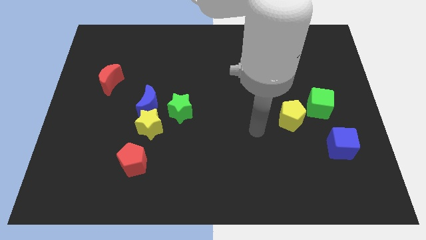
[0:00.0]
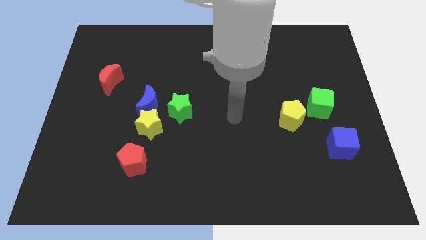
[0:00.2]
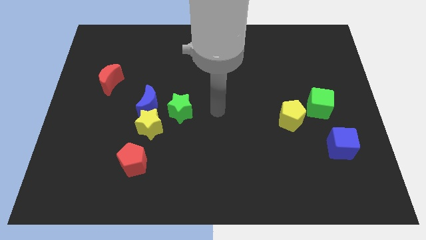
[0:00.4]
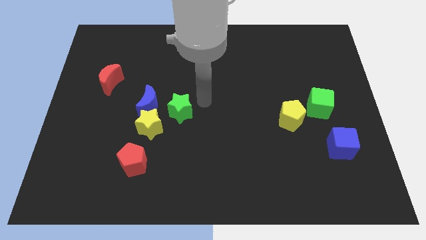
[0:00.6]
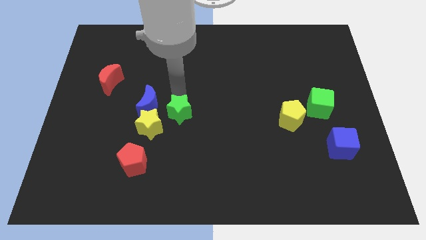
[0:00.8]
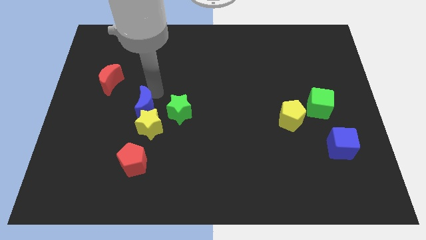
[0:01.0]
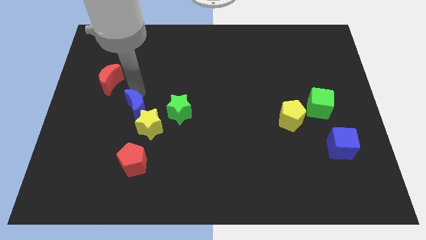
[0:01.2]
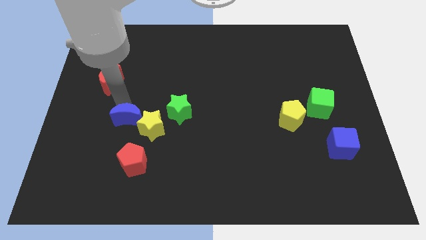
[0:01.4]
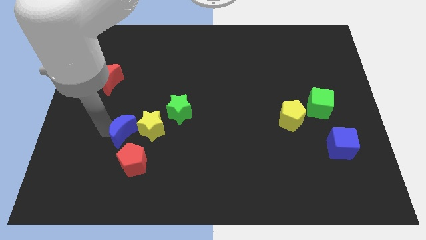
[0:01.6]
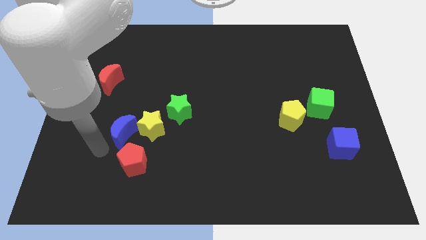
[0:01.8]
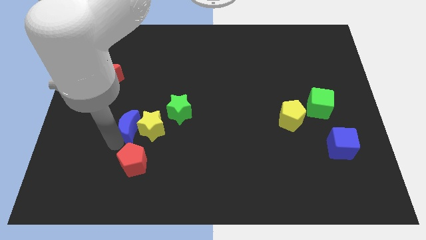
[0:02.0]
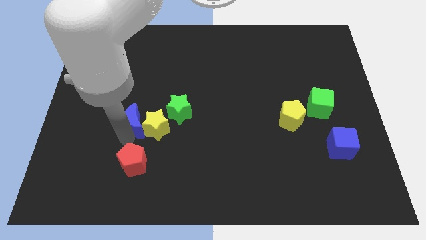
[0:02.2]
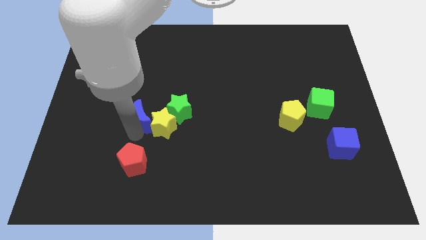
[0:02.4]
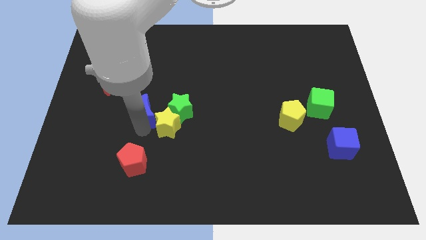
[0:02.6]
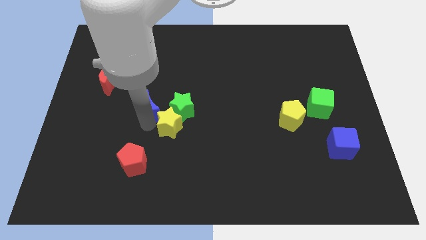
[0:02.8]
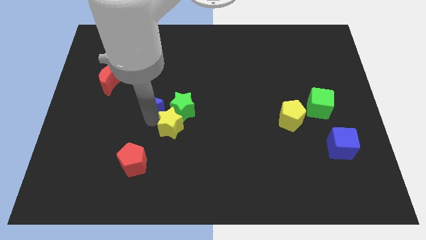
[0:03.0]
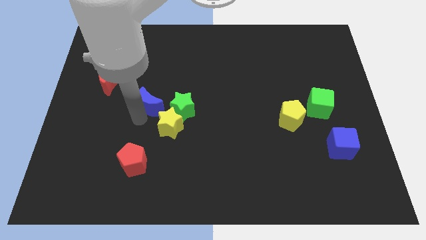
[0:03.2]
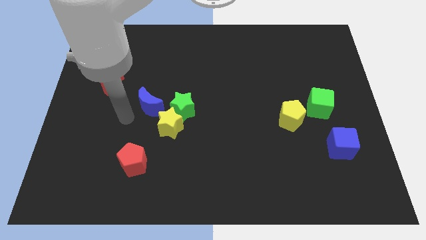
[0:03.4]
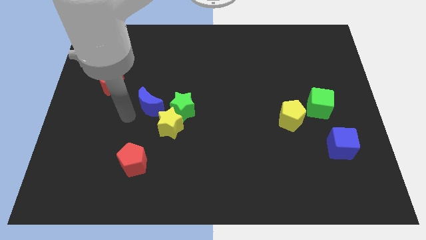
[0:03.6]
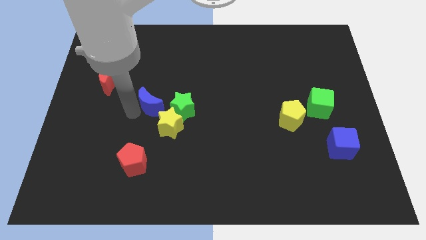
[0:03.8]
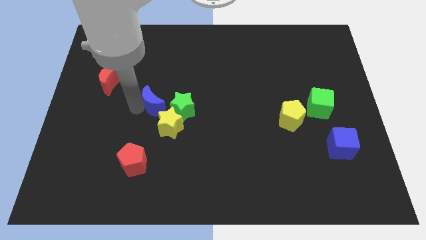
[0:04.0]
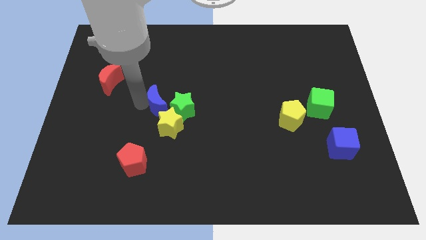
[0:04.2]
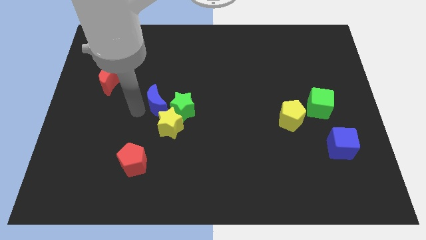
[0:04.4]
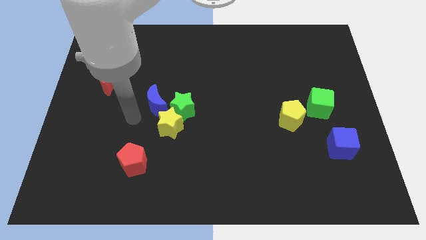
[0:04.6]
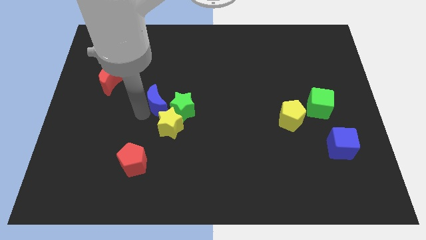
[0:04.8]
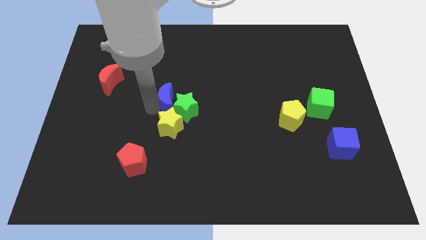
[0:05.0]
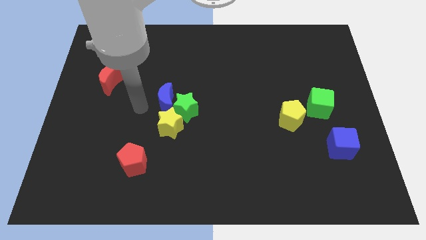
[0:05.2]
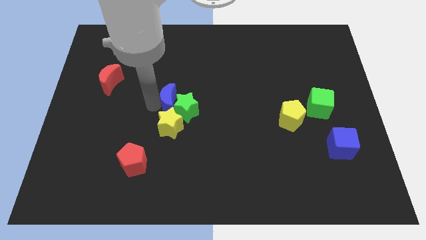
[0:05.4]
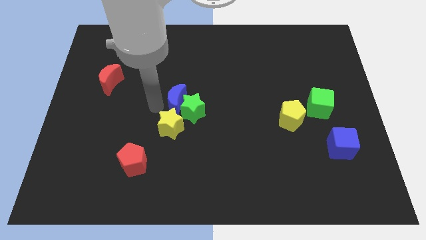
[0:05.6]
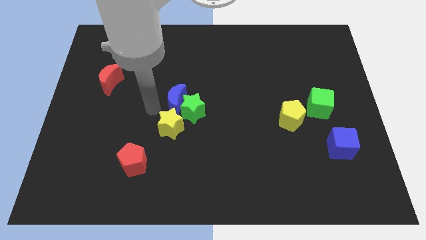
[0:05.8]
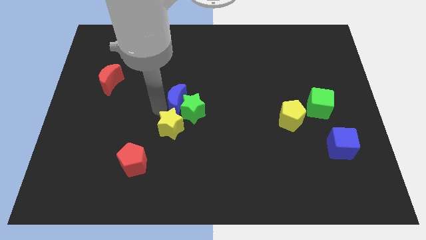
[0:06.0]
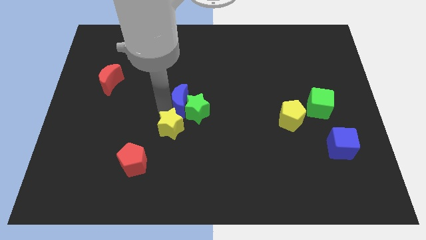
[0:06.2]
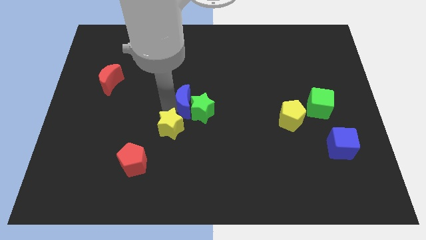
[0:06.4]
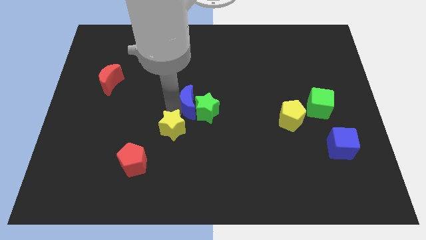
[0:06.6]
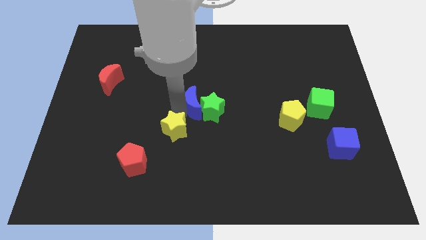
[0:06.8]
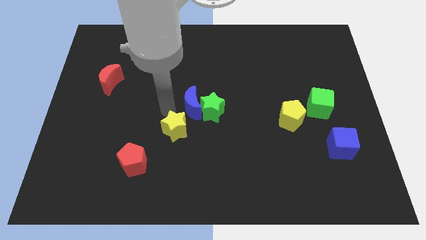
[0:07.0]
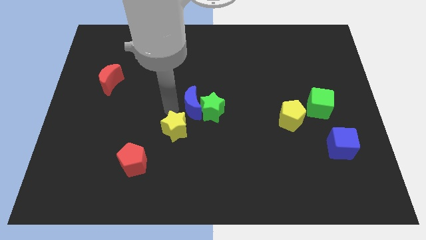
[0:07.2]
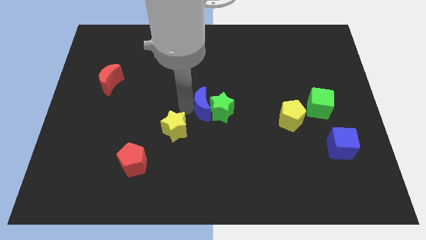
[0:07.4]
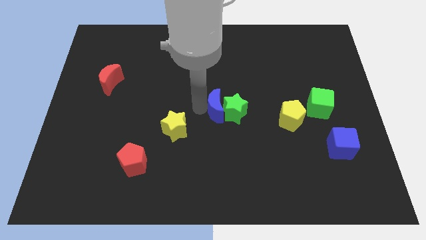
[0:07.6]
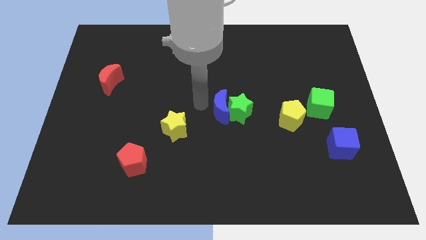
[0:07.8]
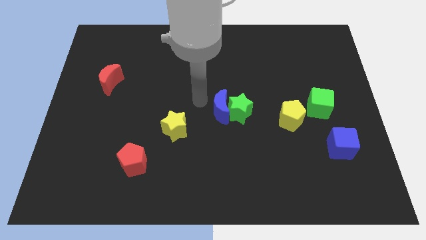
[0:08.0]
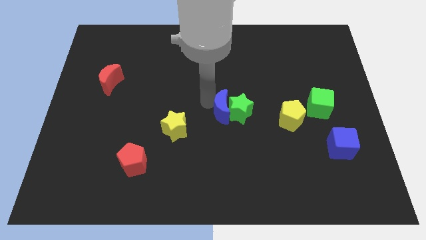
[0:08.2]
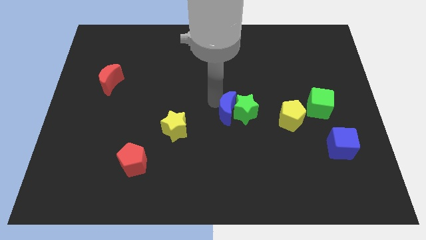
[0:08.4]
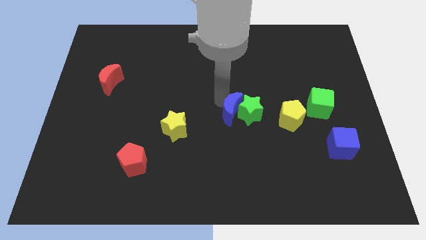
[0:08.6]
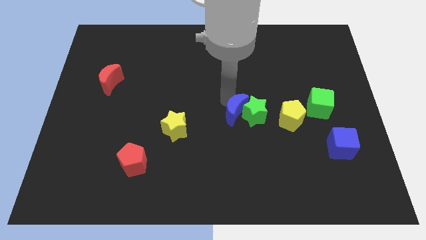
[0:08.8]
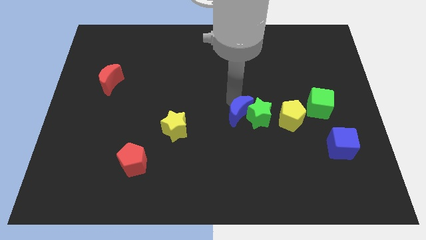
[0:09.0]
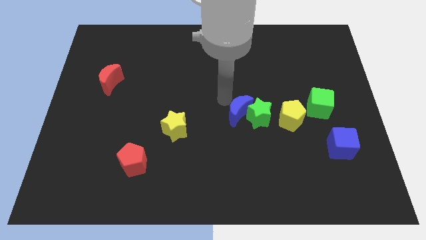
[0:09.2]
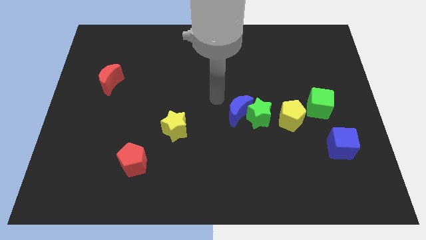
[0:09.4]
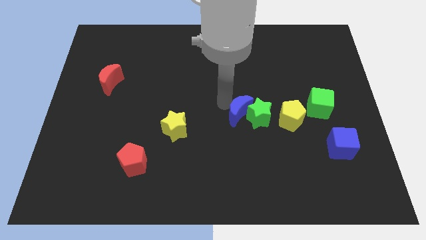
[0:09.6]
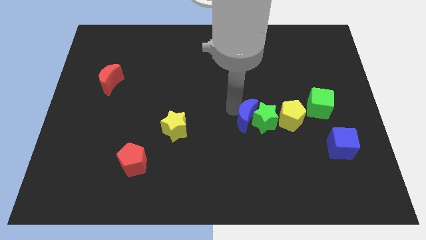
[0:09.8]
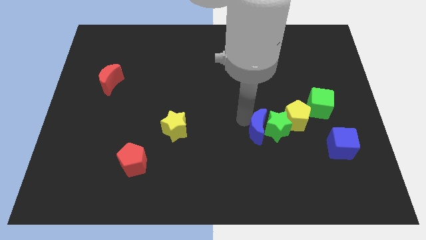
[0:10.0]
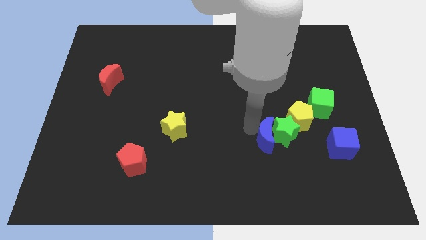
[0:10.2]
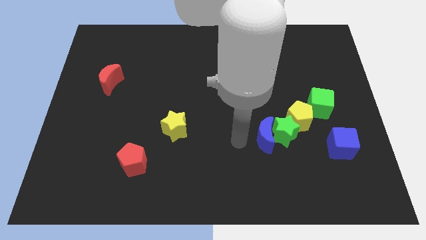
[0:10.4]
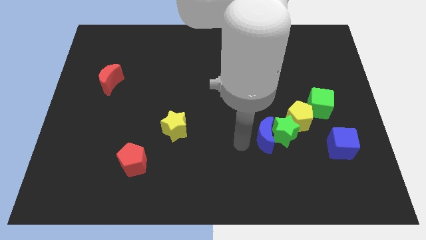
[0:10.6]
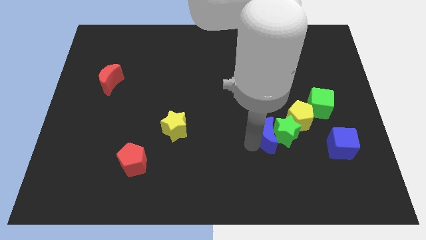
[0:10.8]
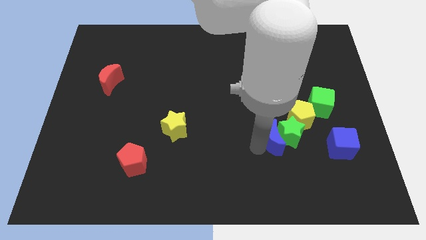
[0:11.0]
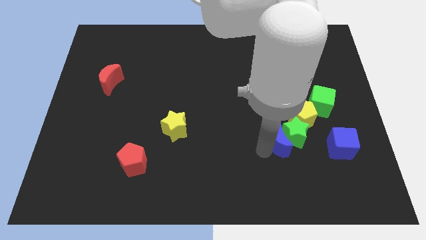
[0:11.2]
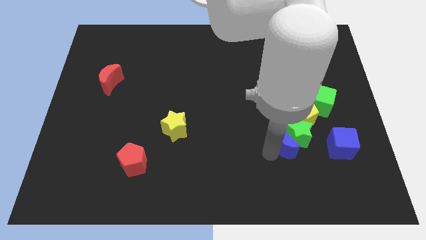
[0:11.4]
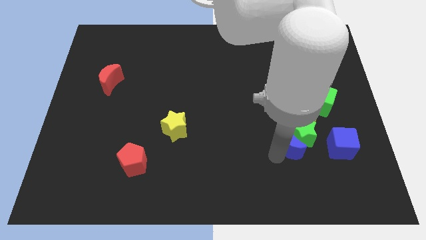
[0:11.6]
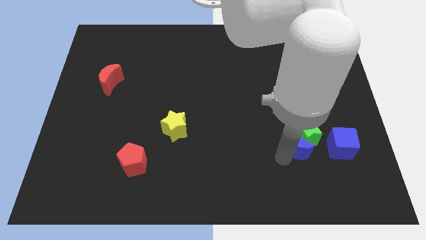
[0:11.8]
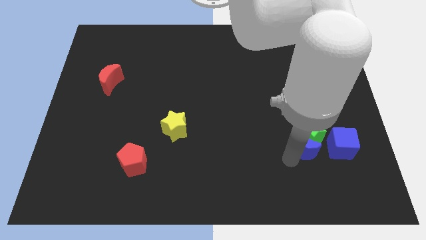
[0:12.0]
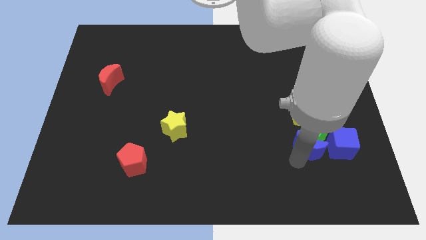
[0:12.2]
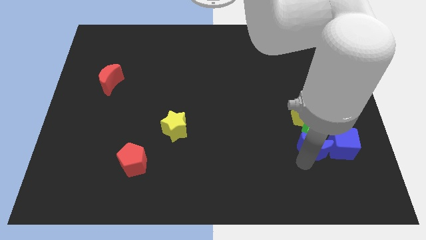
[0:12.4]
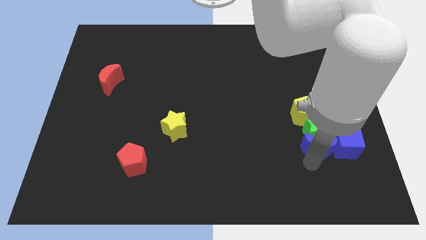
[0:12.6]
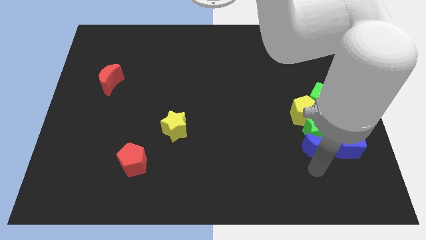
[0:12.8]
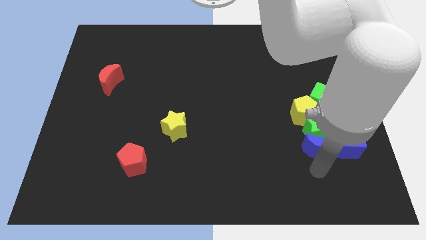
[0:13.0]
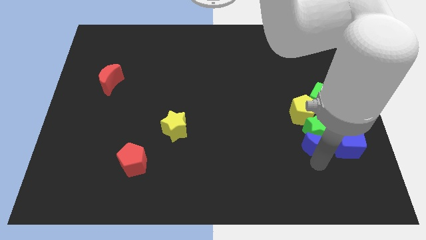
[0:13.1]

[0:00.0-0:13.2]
slide the blue moon to the top left of the blue cube

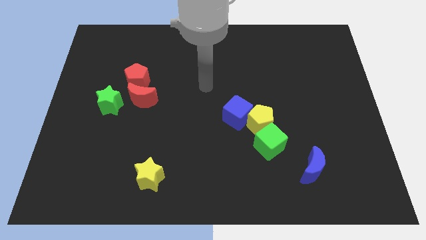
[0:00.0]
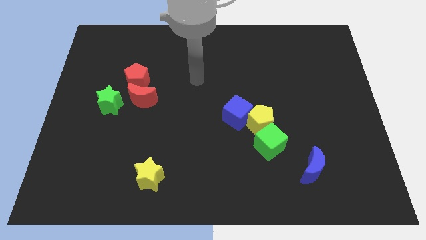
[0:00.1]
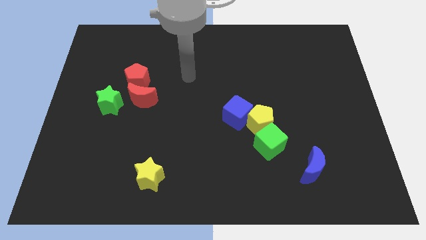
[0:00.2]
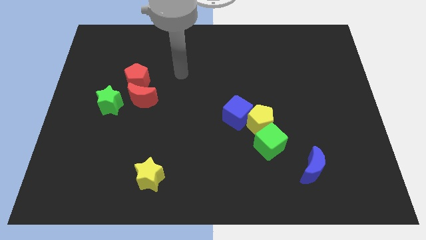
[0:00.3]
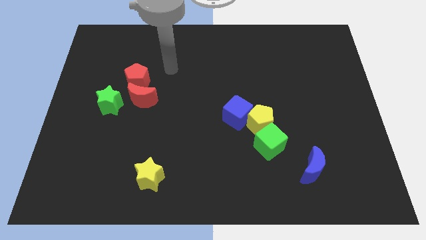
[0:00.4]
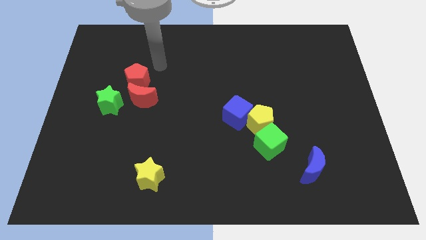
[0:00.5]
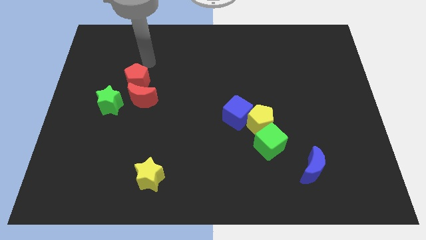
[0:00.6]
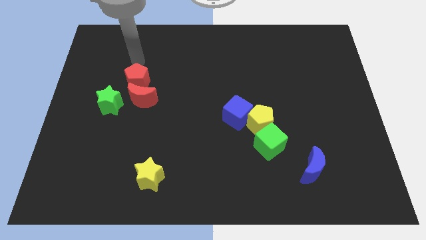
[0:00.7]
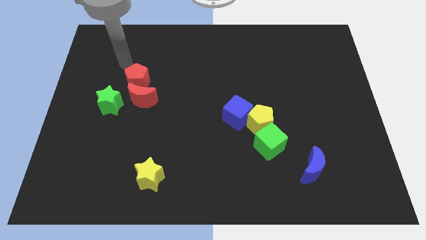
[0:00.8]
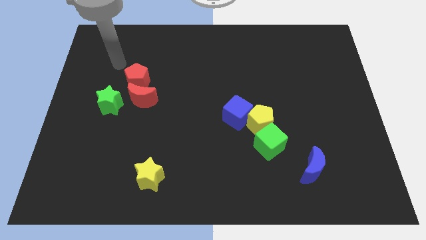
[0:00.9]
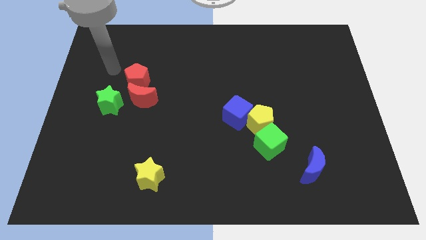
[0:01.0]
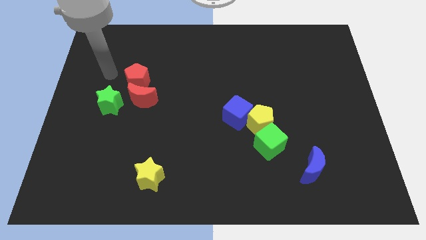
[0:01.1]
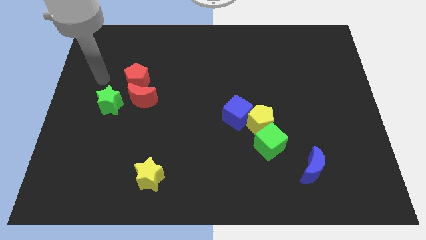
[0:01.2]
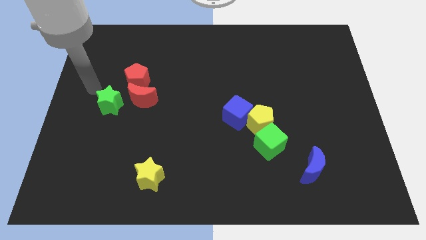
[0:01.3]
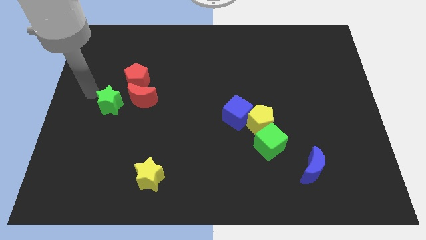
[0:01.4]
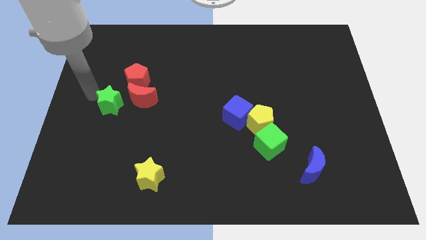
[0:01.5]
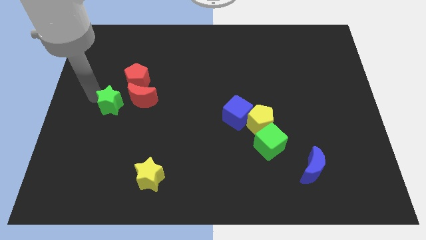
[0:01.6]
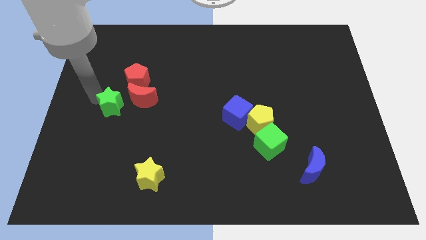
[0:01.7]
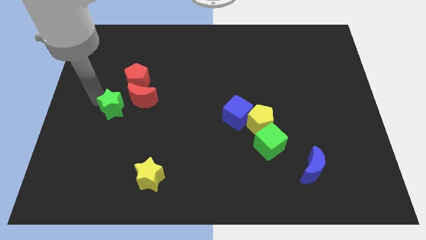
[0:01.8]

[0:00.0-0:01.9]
move the green star below the red pentagon
